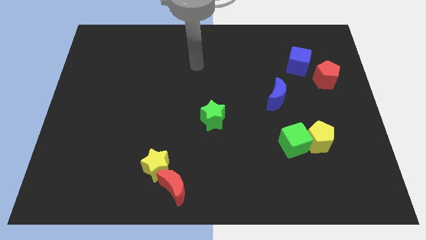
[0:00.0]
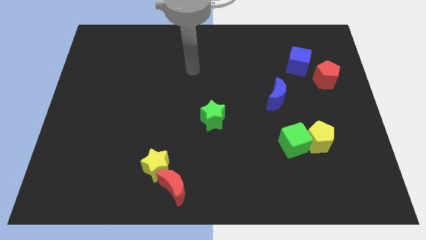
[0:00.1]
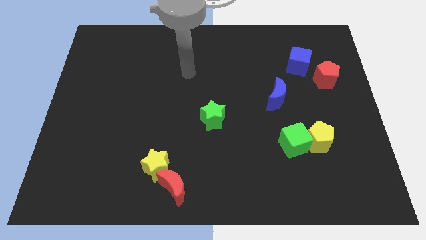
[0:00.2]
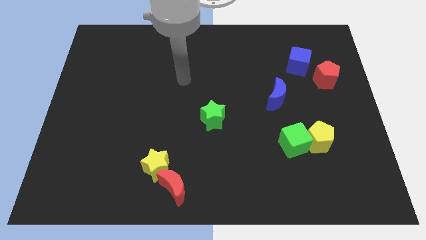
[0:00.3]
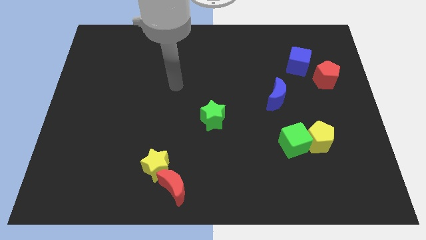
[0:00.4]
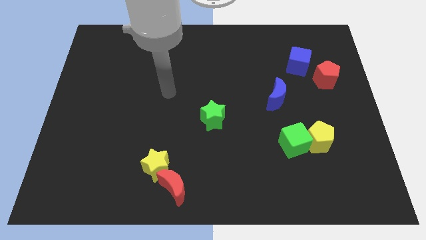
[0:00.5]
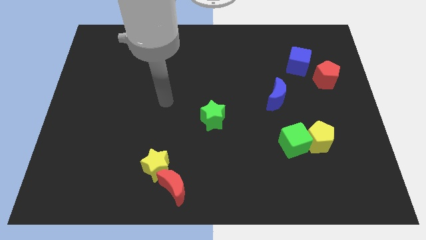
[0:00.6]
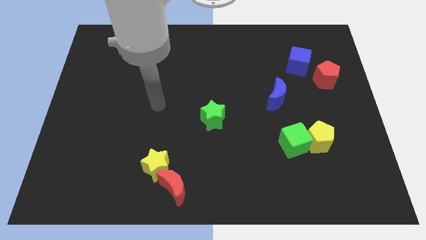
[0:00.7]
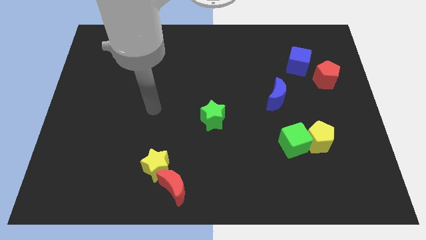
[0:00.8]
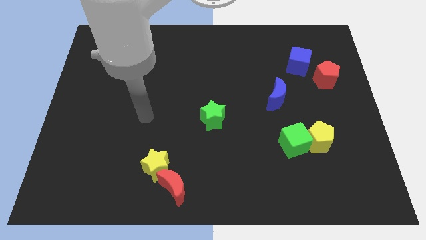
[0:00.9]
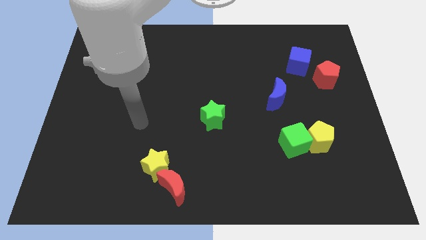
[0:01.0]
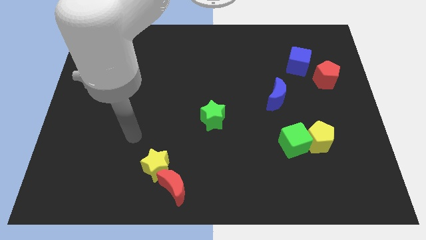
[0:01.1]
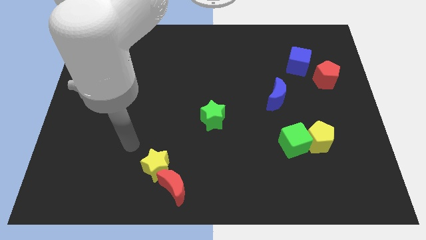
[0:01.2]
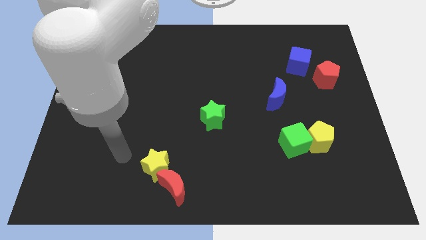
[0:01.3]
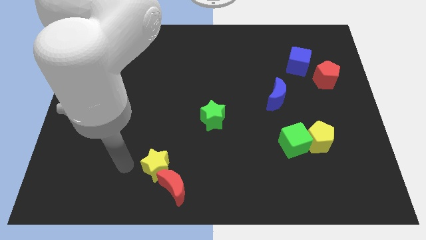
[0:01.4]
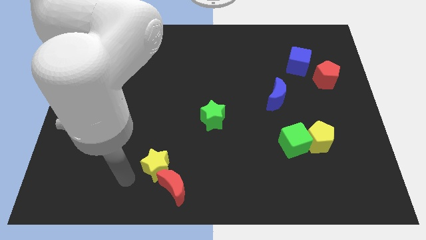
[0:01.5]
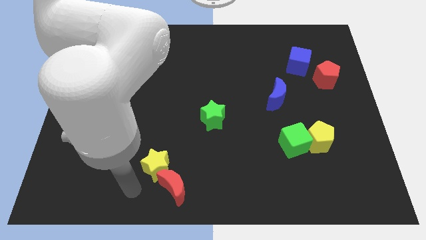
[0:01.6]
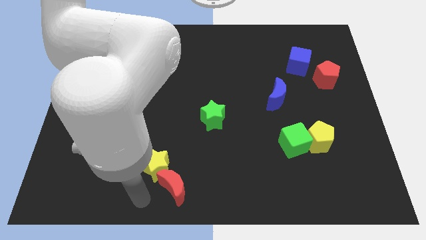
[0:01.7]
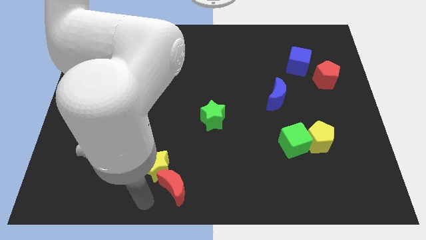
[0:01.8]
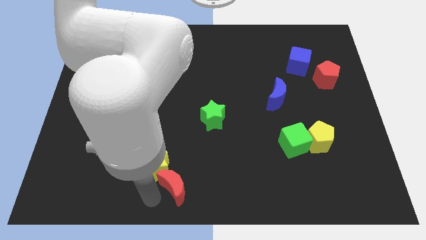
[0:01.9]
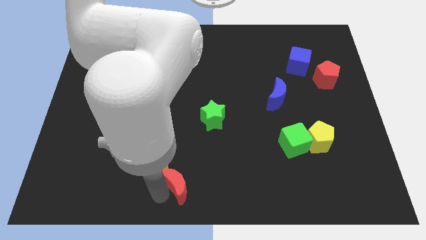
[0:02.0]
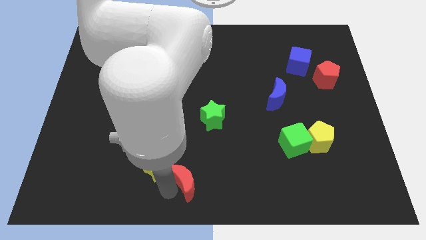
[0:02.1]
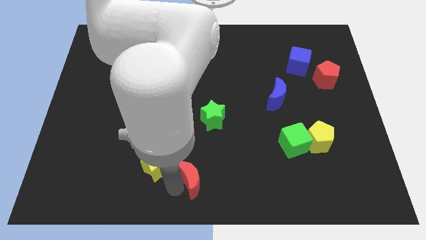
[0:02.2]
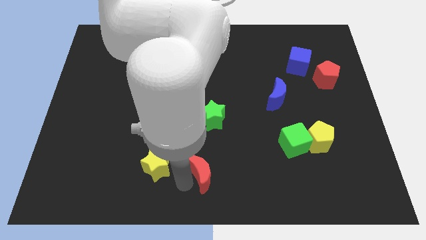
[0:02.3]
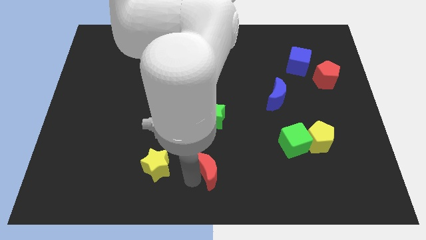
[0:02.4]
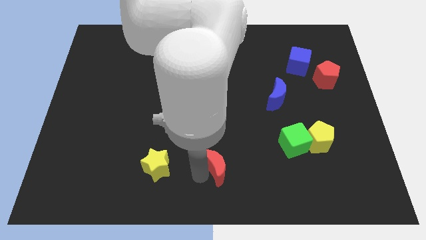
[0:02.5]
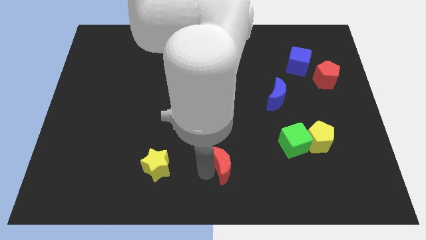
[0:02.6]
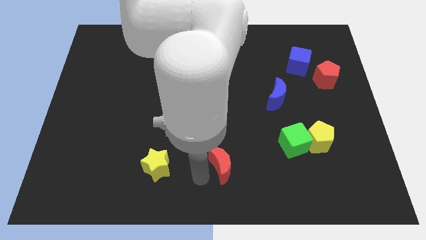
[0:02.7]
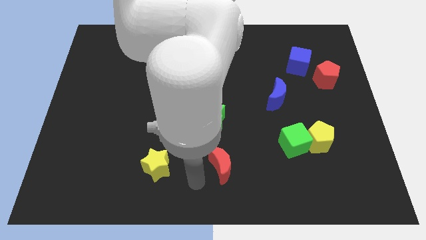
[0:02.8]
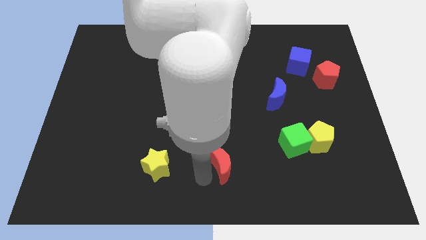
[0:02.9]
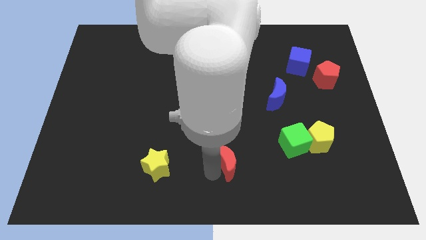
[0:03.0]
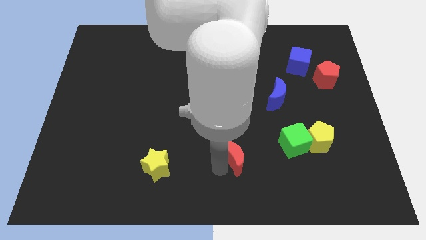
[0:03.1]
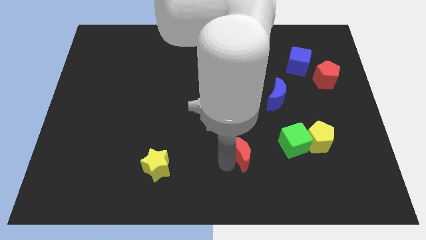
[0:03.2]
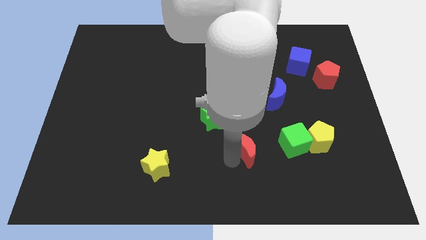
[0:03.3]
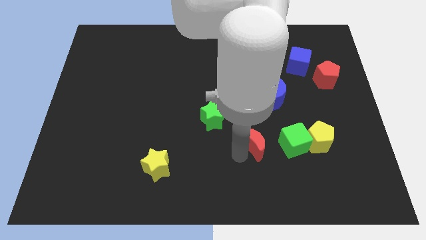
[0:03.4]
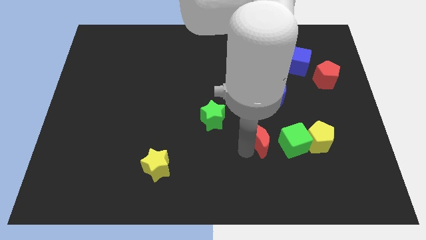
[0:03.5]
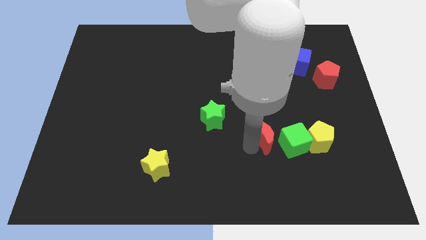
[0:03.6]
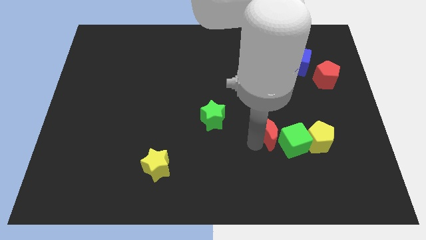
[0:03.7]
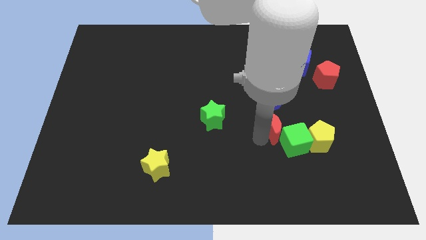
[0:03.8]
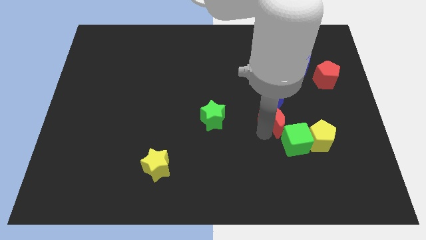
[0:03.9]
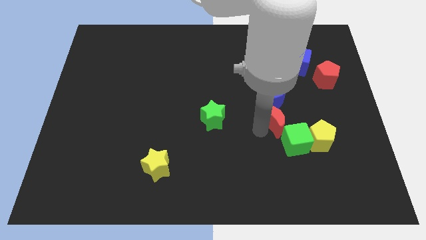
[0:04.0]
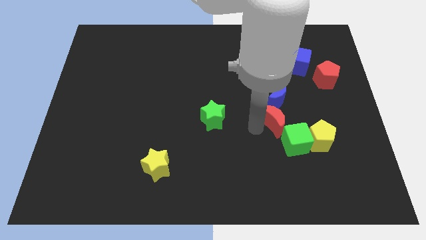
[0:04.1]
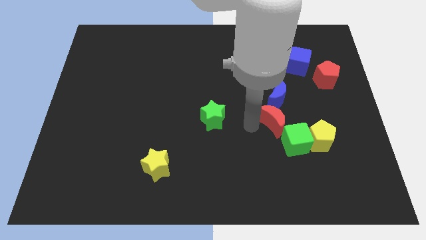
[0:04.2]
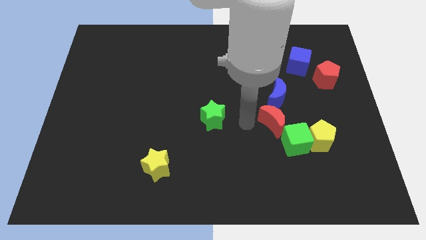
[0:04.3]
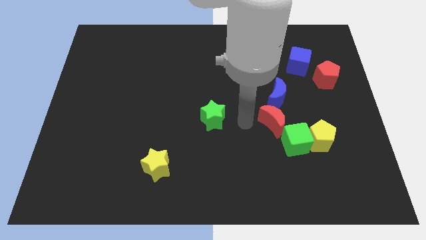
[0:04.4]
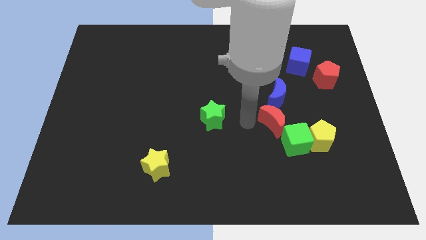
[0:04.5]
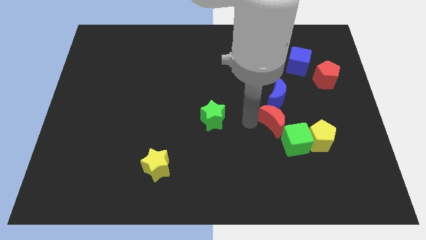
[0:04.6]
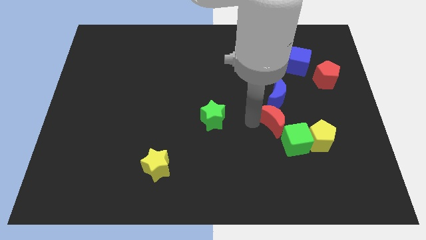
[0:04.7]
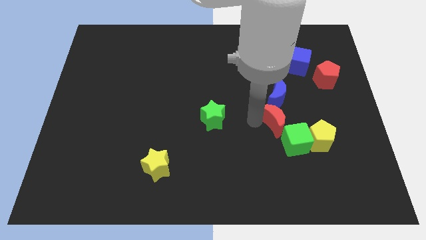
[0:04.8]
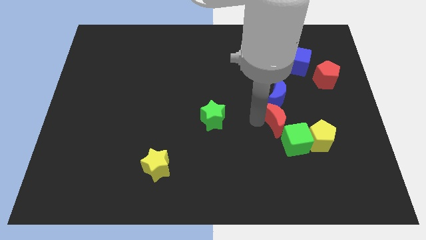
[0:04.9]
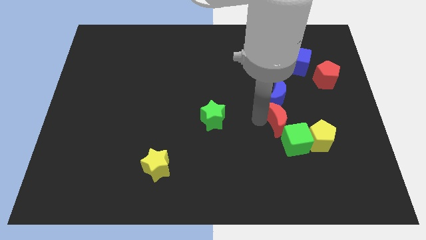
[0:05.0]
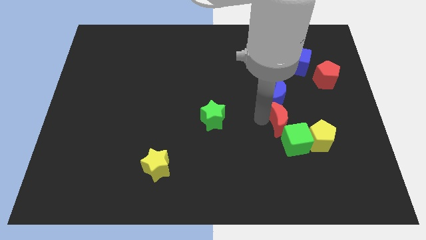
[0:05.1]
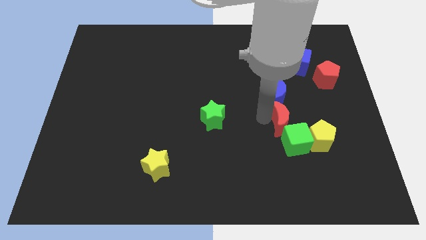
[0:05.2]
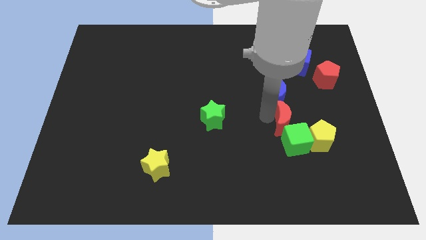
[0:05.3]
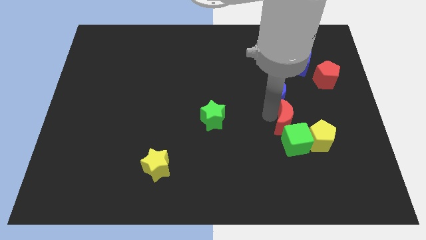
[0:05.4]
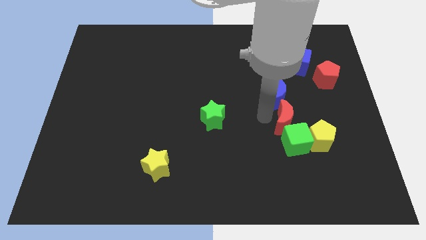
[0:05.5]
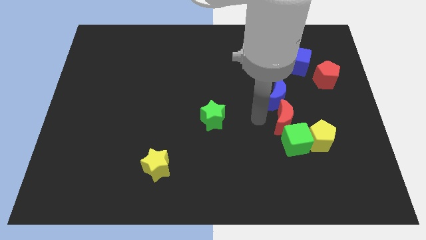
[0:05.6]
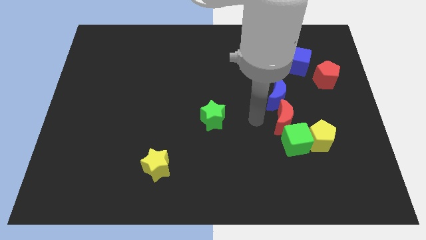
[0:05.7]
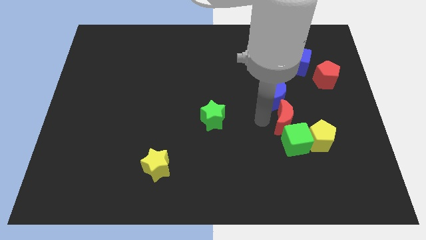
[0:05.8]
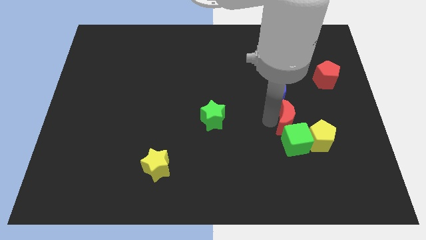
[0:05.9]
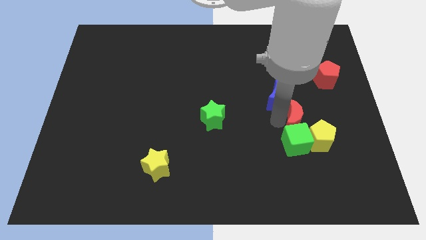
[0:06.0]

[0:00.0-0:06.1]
put the red moon to the top right of the green cube

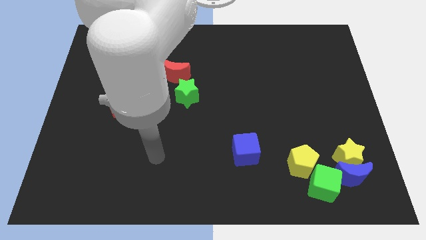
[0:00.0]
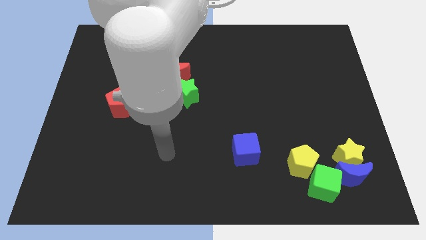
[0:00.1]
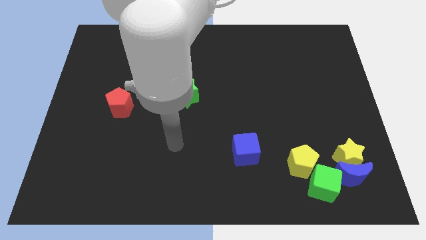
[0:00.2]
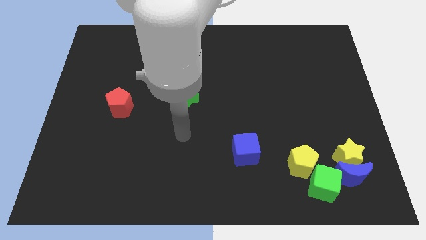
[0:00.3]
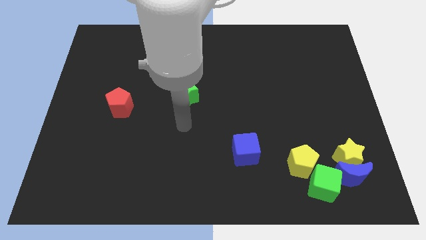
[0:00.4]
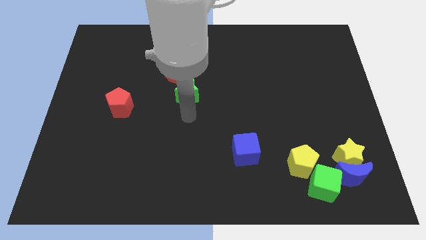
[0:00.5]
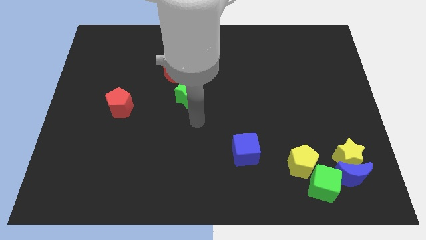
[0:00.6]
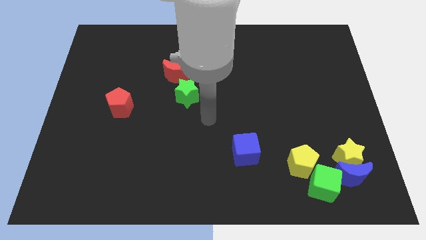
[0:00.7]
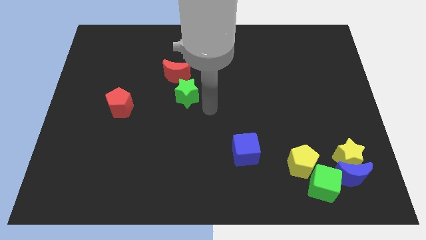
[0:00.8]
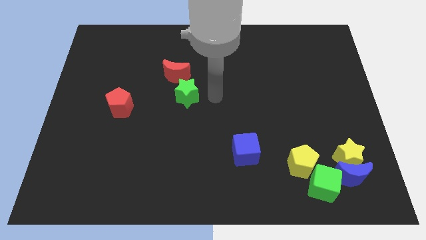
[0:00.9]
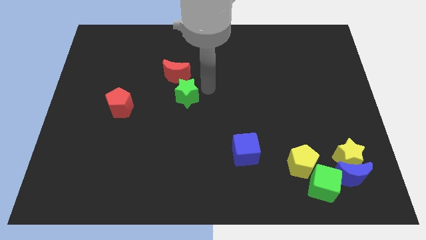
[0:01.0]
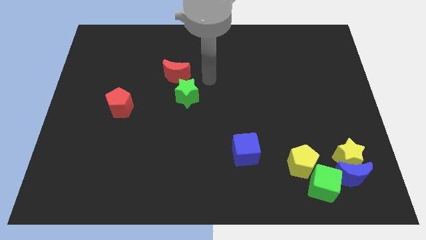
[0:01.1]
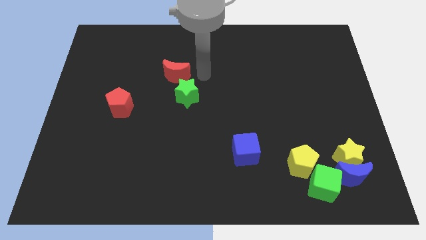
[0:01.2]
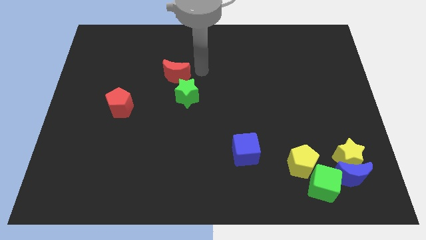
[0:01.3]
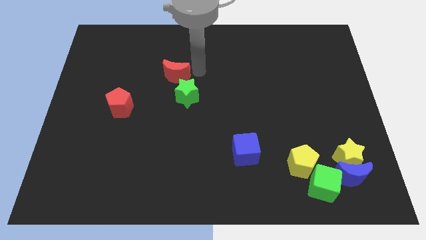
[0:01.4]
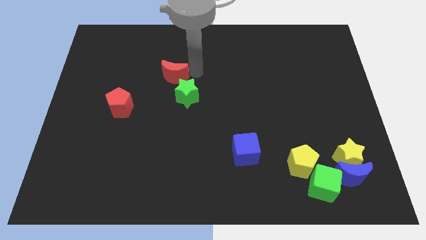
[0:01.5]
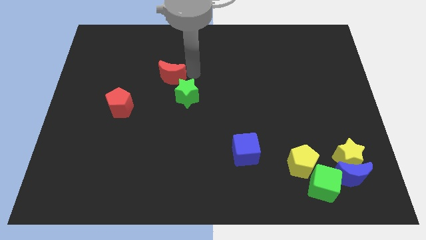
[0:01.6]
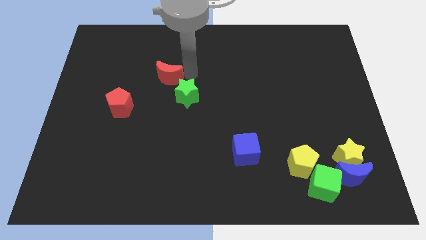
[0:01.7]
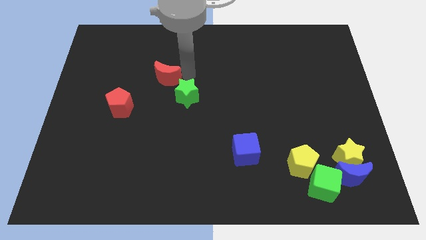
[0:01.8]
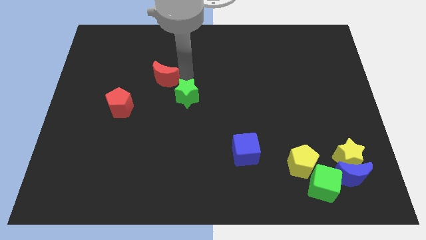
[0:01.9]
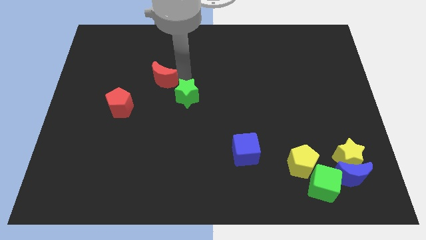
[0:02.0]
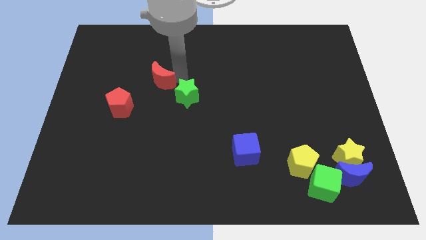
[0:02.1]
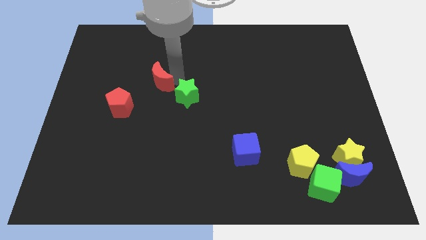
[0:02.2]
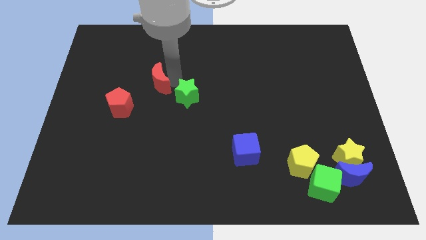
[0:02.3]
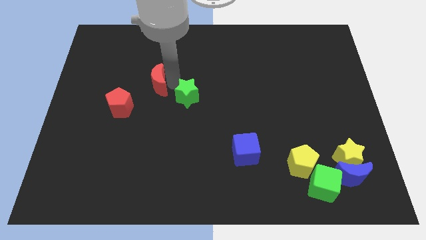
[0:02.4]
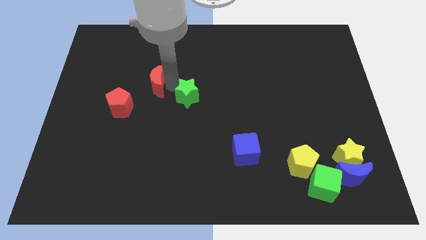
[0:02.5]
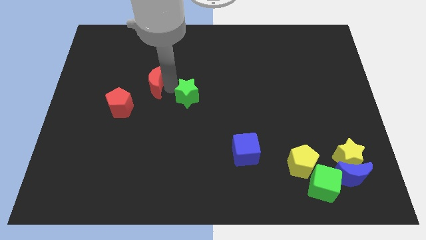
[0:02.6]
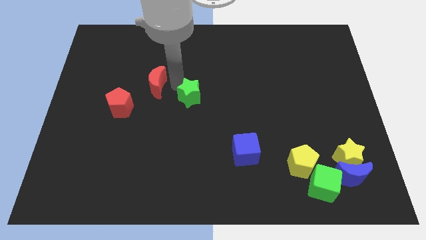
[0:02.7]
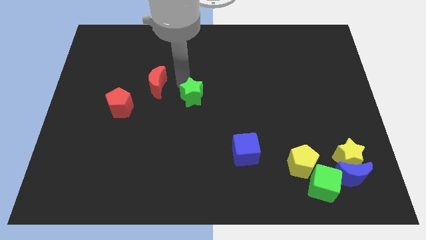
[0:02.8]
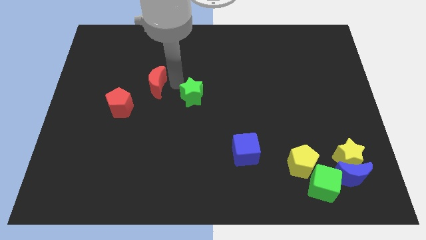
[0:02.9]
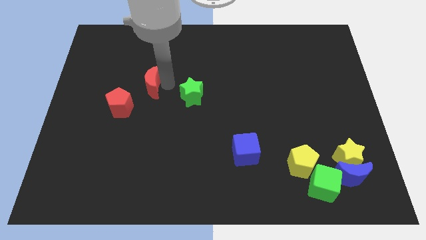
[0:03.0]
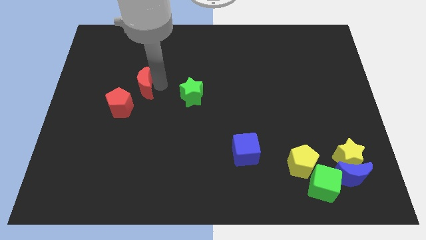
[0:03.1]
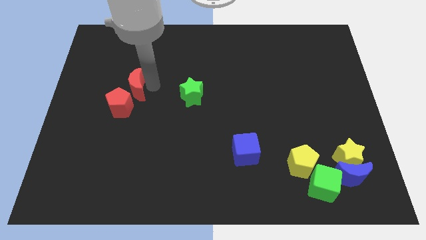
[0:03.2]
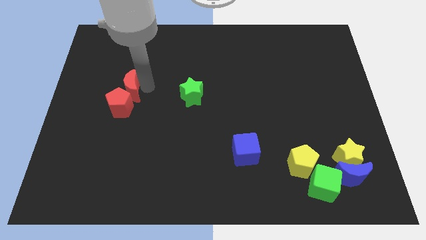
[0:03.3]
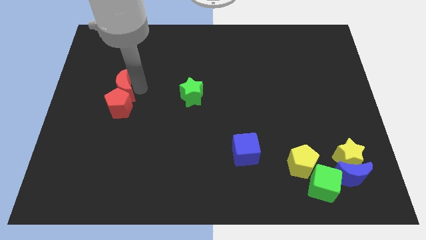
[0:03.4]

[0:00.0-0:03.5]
put the red moon to the top left of the red pentagon
